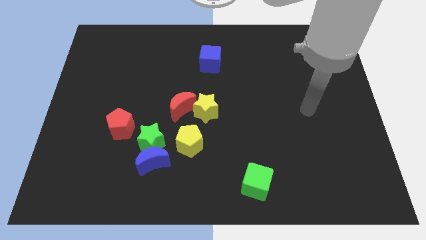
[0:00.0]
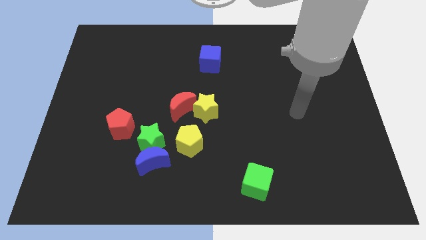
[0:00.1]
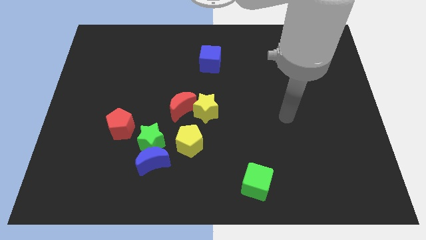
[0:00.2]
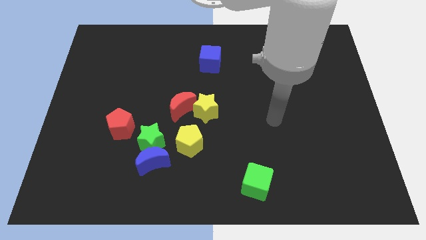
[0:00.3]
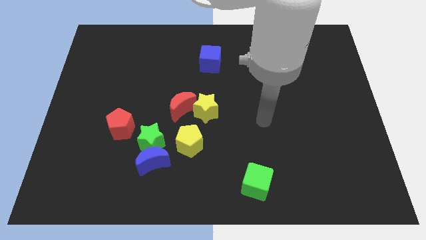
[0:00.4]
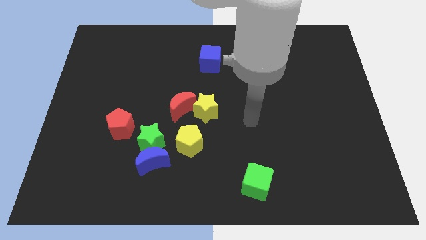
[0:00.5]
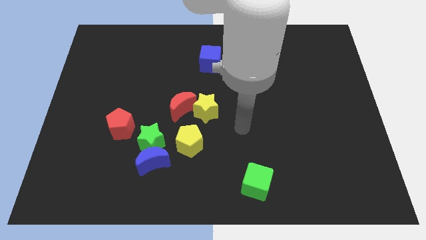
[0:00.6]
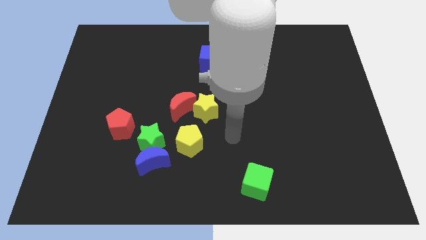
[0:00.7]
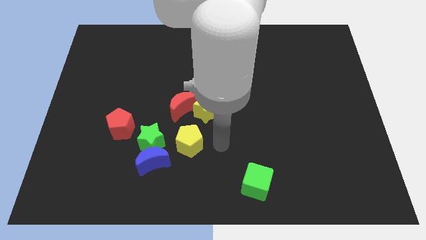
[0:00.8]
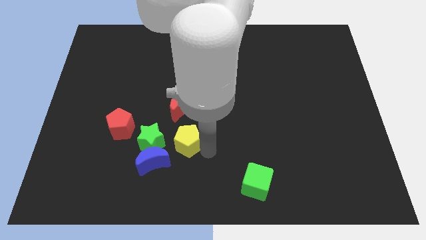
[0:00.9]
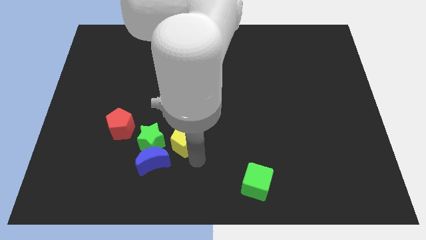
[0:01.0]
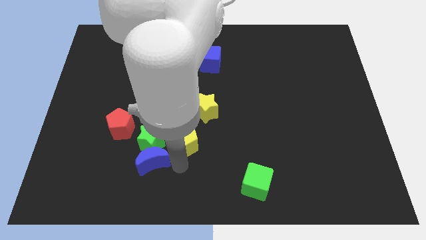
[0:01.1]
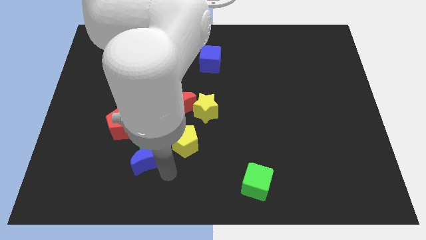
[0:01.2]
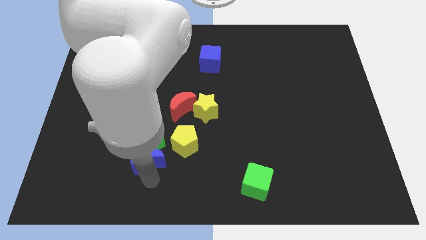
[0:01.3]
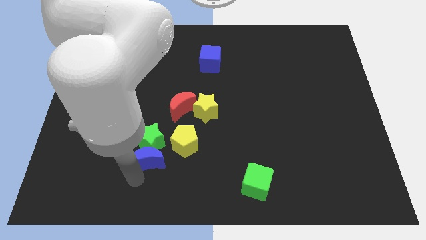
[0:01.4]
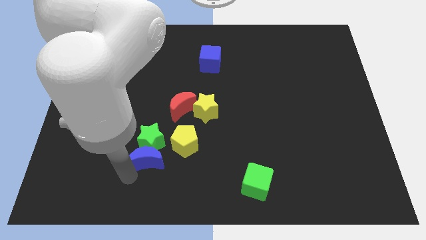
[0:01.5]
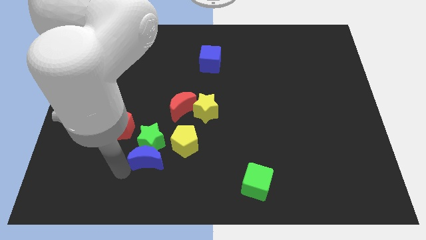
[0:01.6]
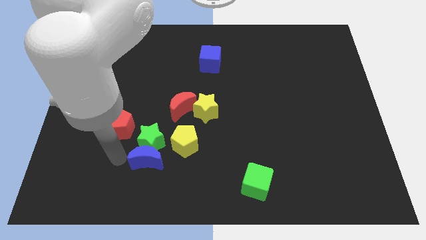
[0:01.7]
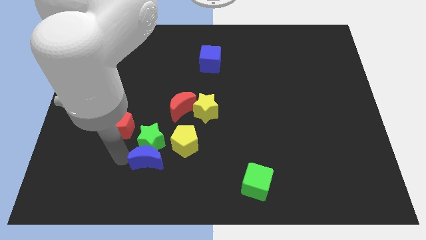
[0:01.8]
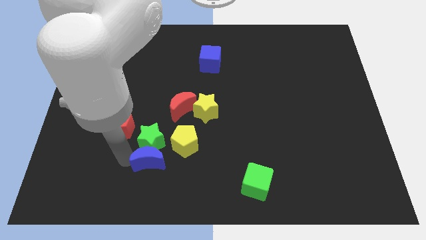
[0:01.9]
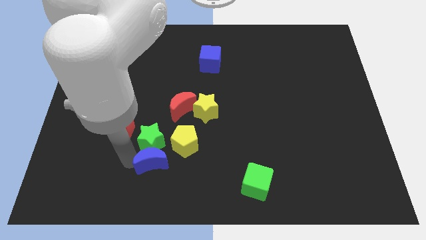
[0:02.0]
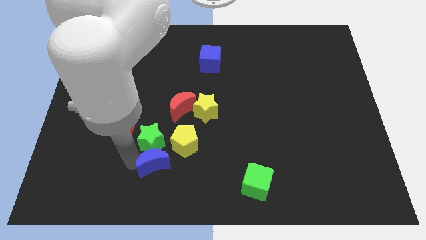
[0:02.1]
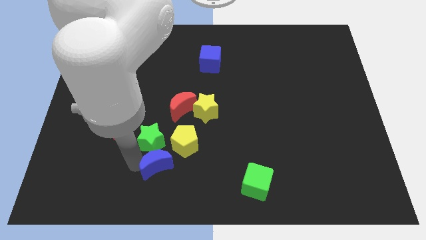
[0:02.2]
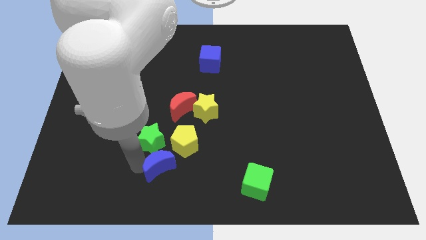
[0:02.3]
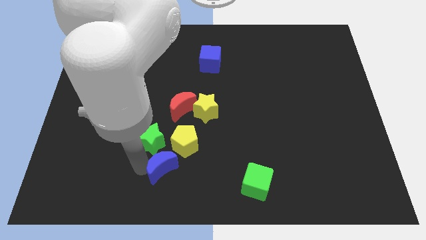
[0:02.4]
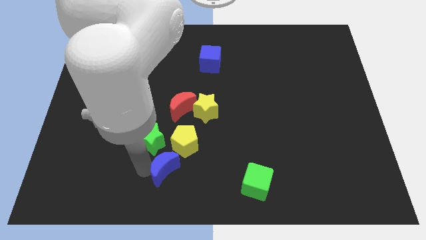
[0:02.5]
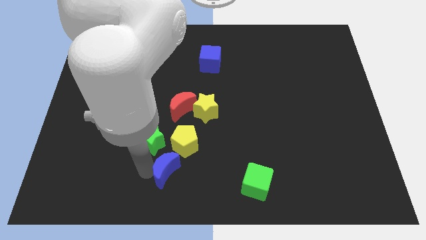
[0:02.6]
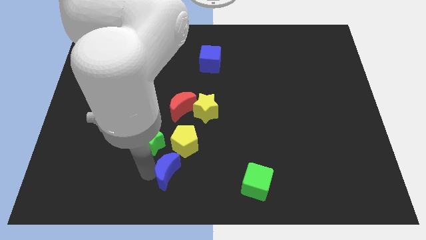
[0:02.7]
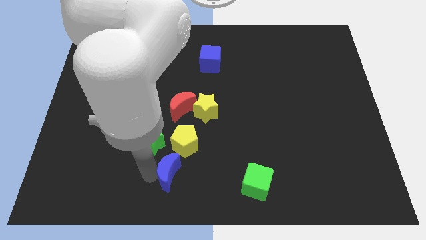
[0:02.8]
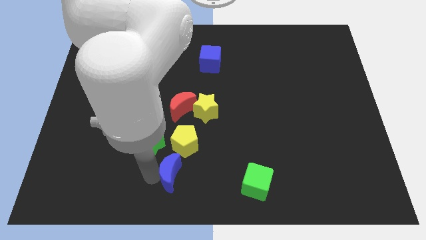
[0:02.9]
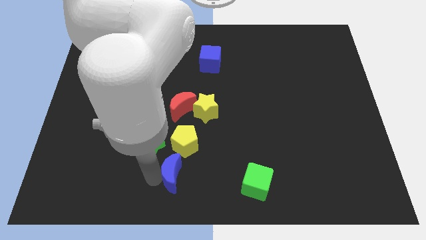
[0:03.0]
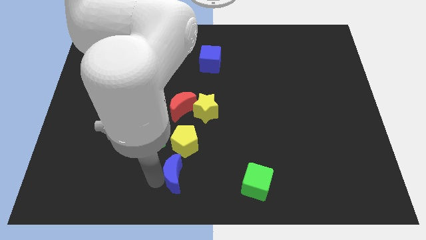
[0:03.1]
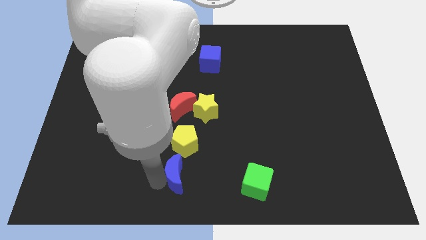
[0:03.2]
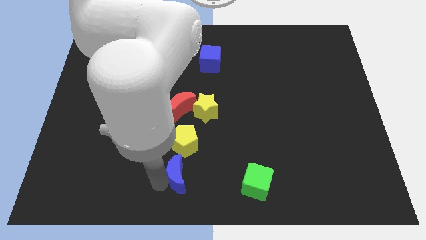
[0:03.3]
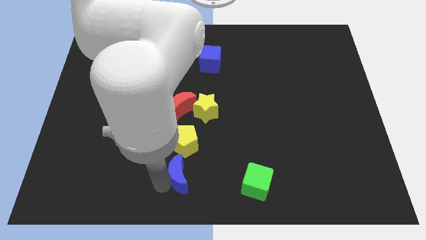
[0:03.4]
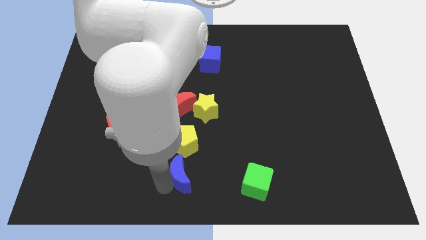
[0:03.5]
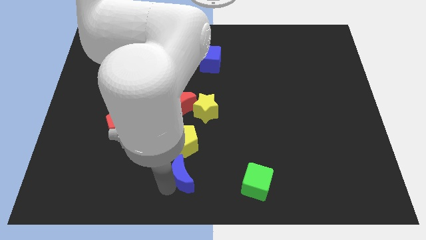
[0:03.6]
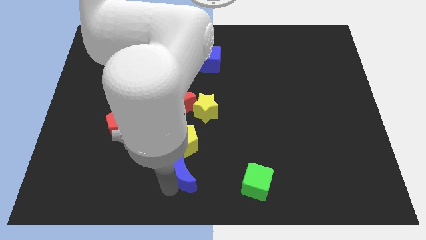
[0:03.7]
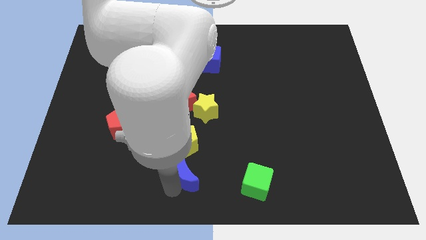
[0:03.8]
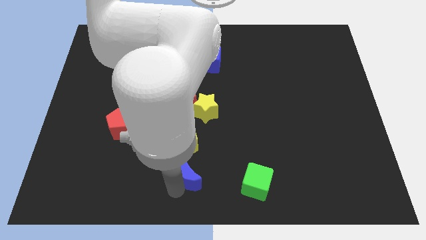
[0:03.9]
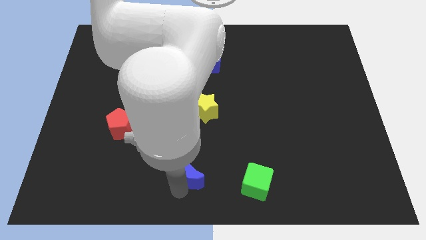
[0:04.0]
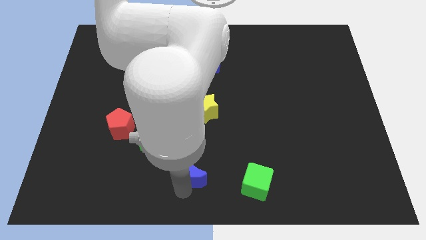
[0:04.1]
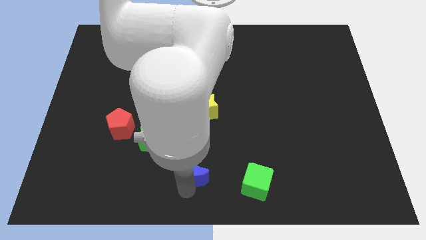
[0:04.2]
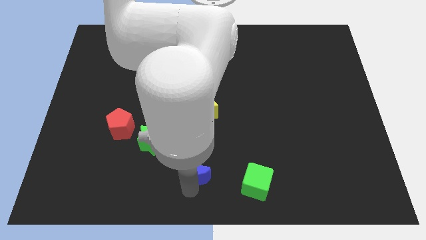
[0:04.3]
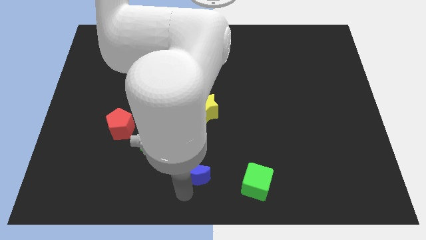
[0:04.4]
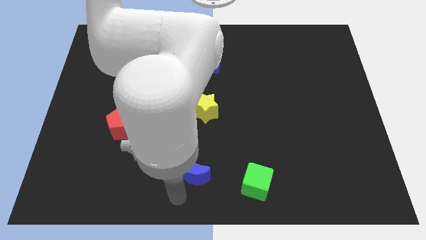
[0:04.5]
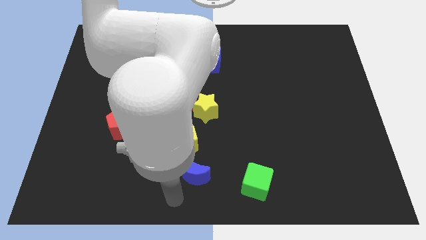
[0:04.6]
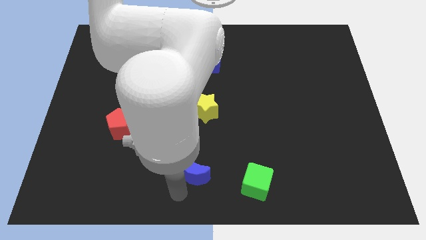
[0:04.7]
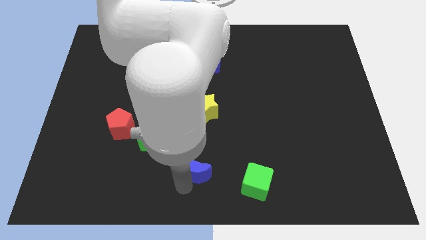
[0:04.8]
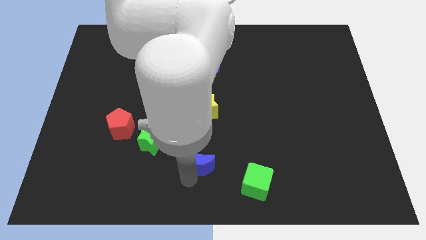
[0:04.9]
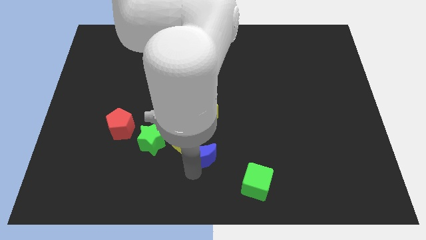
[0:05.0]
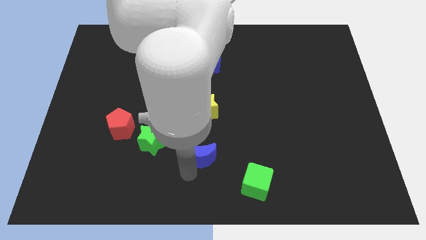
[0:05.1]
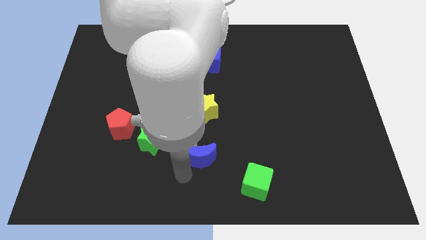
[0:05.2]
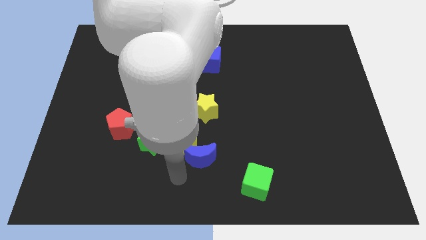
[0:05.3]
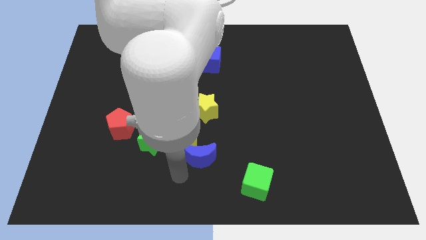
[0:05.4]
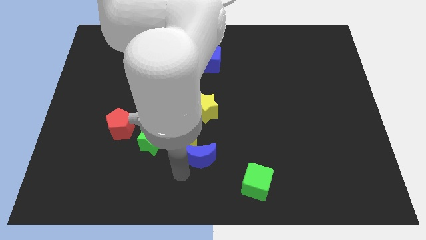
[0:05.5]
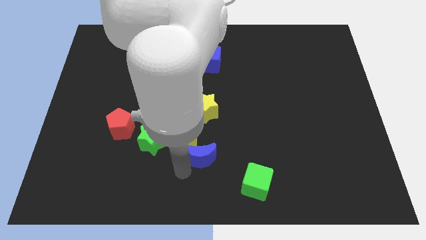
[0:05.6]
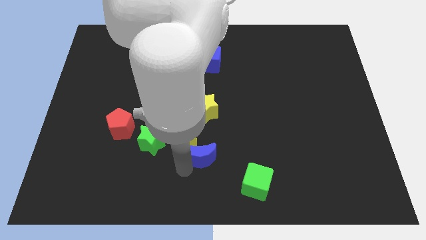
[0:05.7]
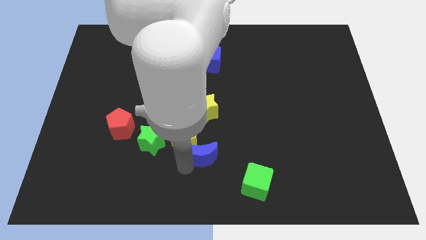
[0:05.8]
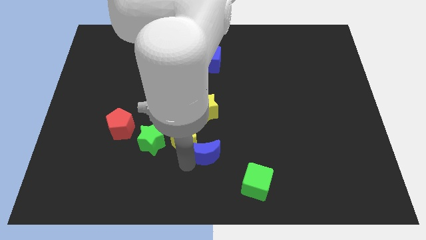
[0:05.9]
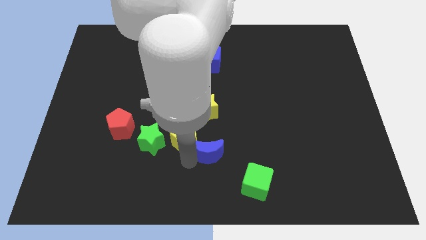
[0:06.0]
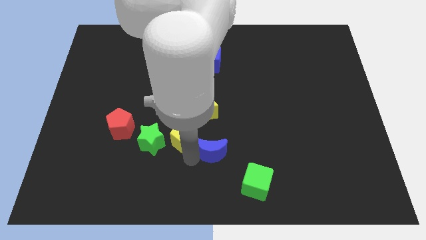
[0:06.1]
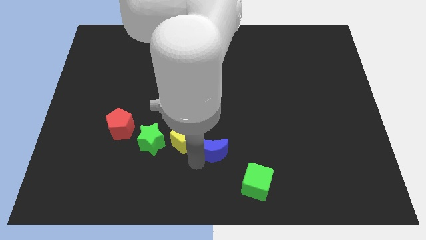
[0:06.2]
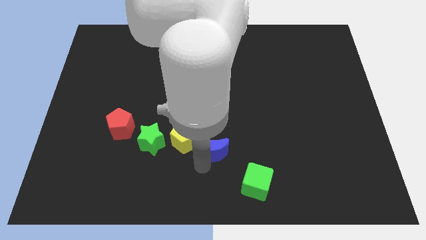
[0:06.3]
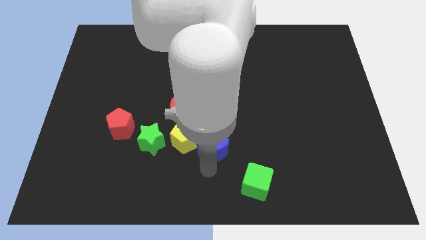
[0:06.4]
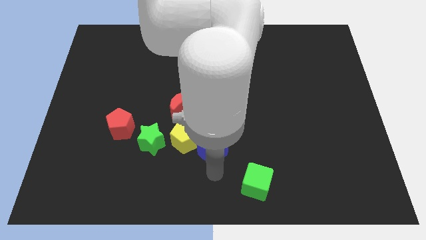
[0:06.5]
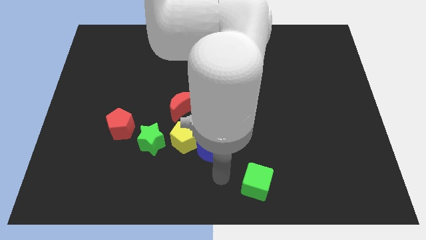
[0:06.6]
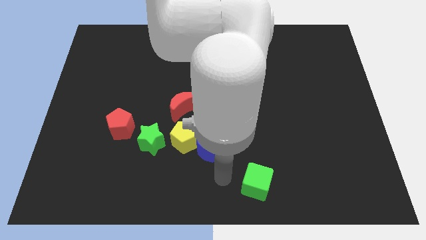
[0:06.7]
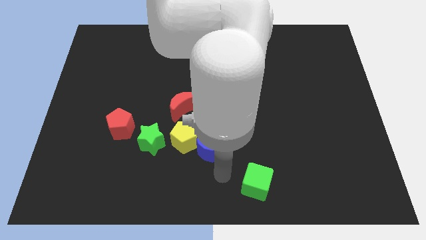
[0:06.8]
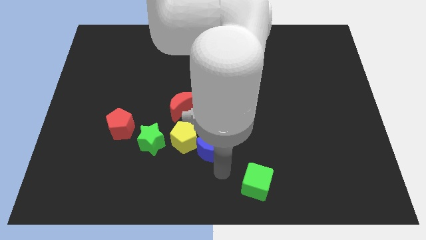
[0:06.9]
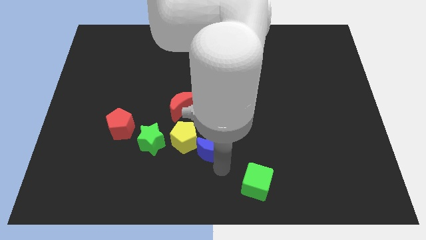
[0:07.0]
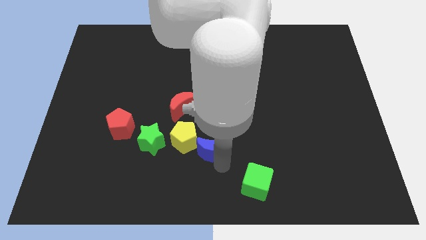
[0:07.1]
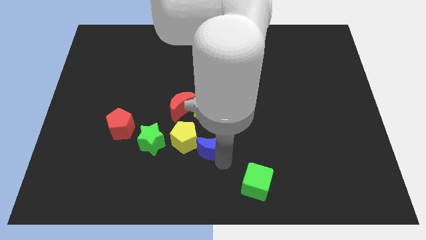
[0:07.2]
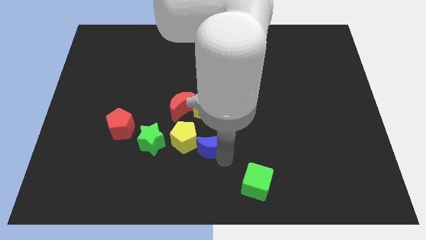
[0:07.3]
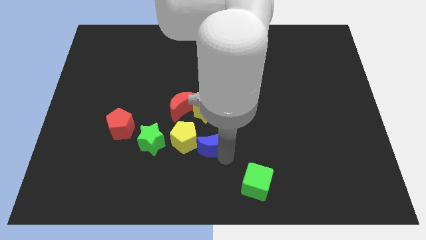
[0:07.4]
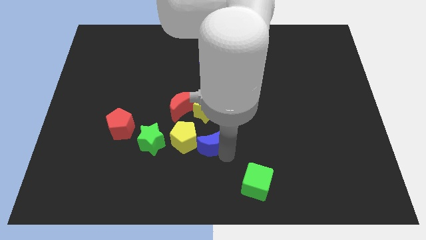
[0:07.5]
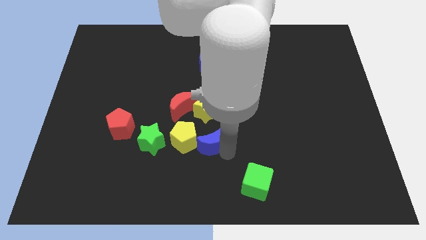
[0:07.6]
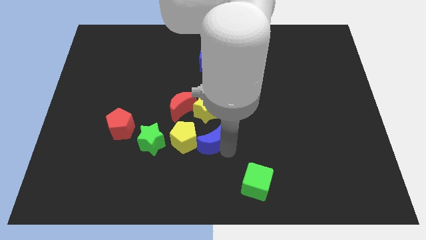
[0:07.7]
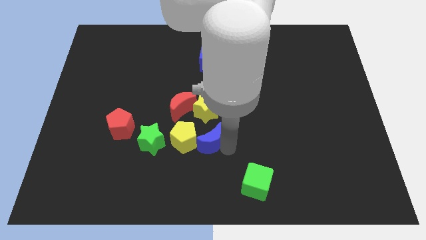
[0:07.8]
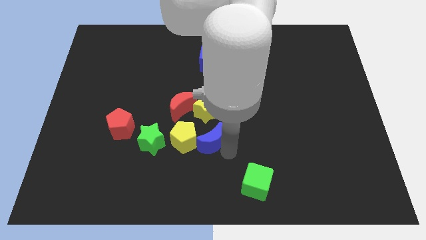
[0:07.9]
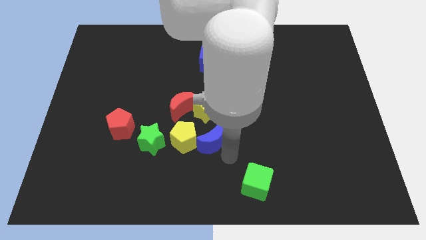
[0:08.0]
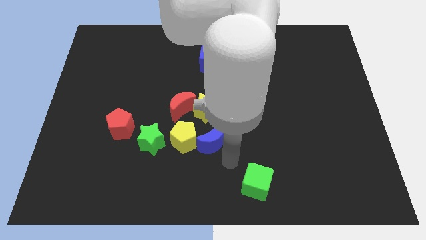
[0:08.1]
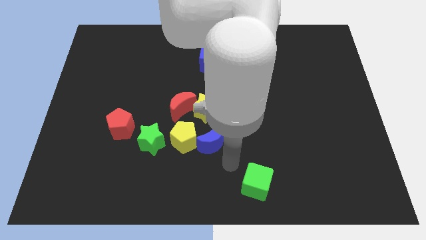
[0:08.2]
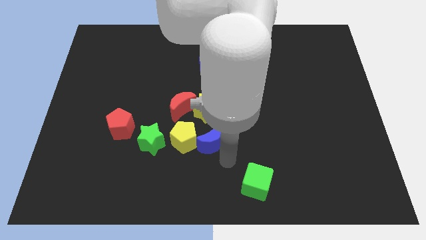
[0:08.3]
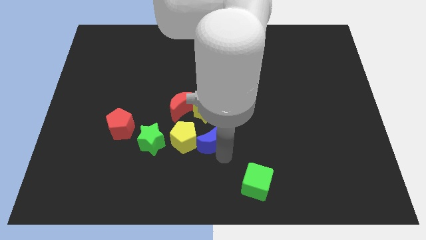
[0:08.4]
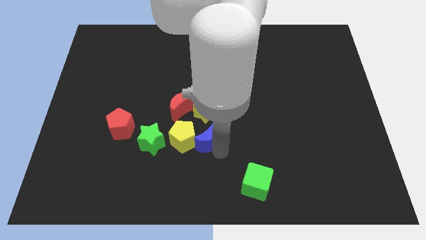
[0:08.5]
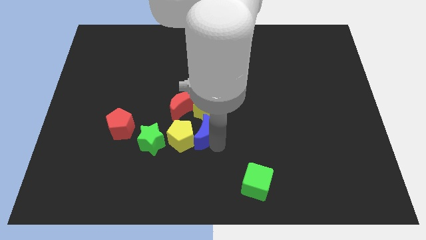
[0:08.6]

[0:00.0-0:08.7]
slide the blue moon to the bottom left of the yellow star
